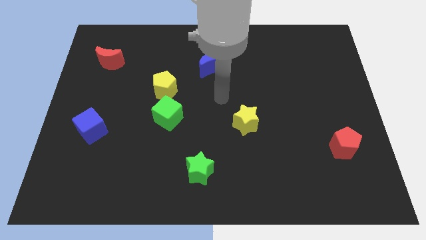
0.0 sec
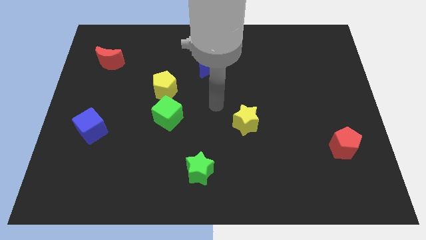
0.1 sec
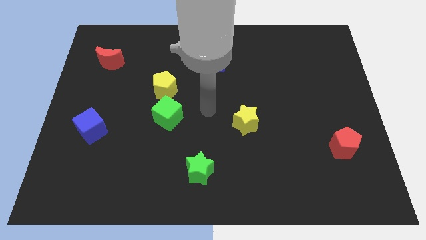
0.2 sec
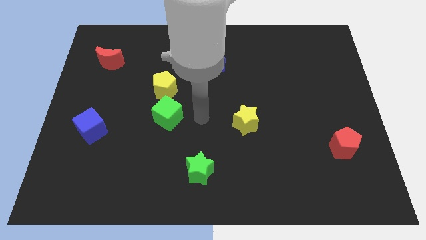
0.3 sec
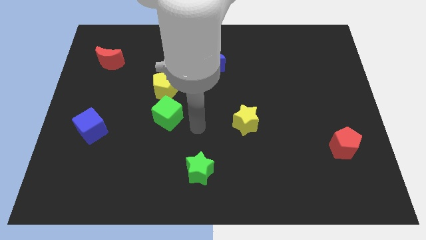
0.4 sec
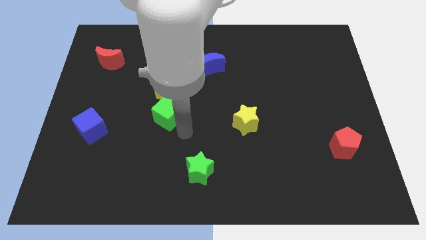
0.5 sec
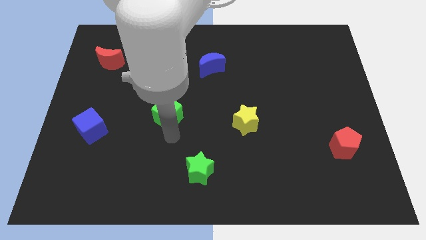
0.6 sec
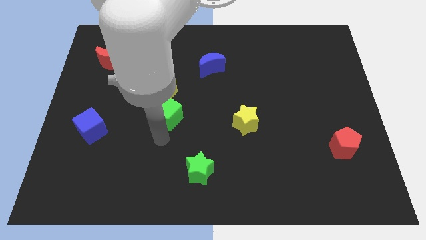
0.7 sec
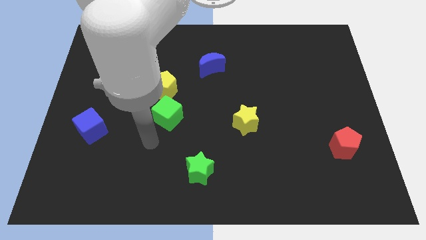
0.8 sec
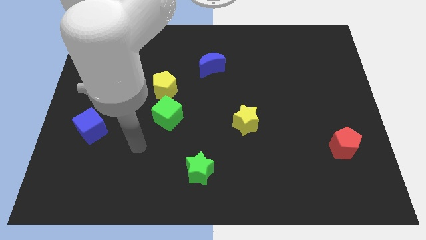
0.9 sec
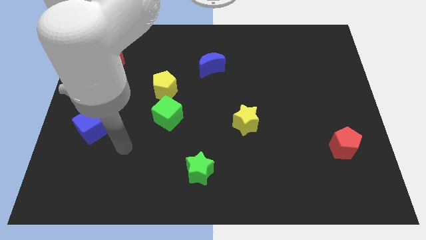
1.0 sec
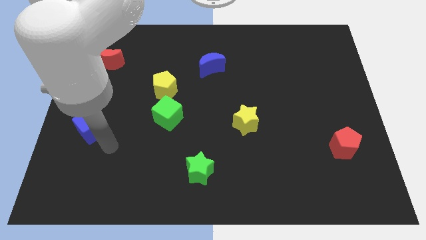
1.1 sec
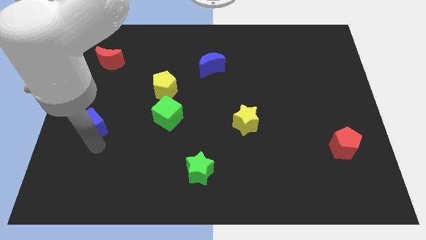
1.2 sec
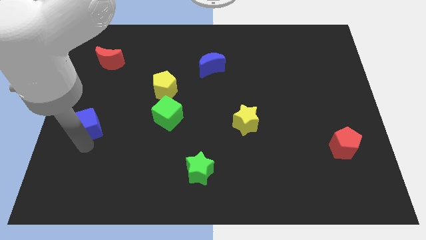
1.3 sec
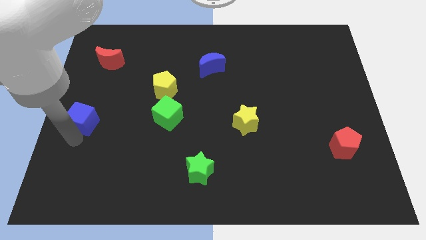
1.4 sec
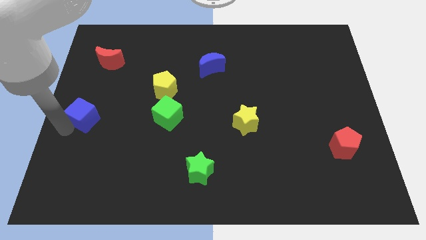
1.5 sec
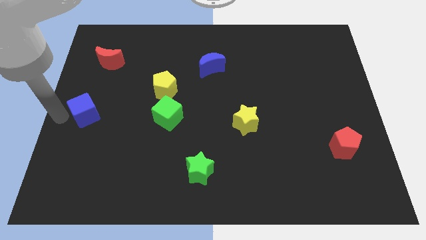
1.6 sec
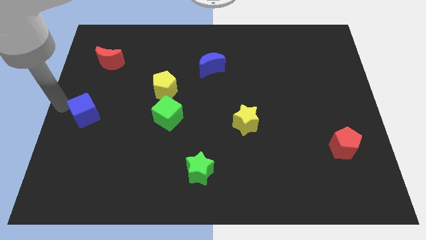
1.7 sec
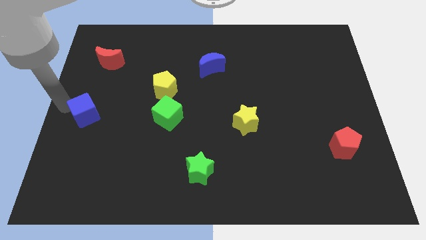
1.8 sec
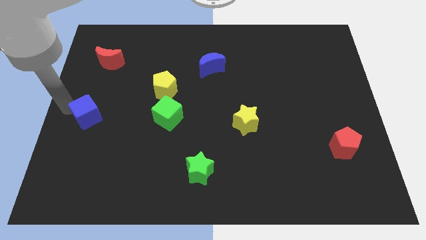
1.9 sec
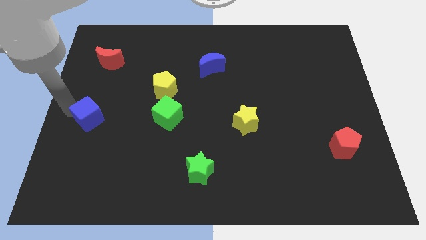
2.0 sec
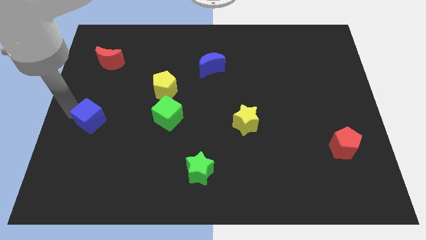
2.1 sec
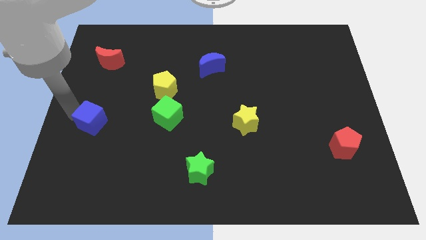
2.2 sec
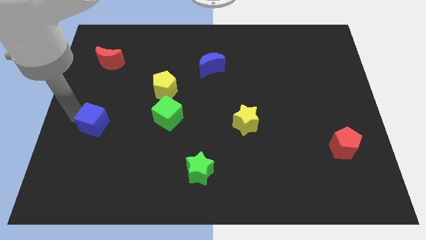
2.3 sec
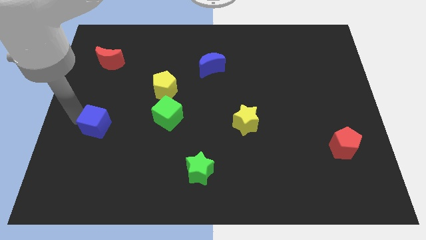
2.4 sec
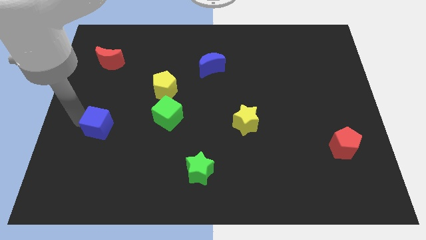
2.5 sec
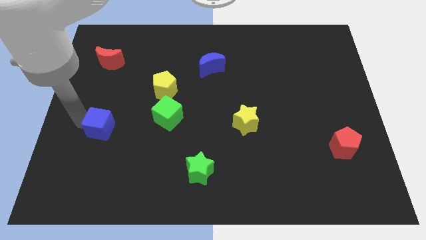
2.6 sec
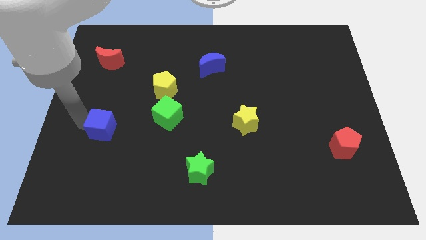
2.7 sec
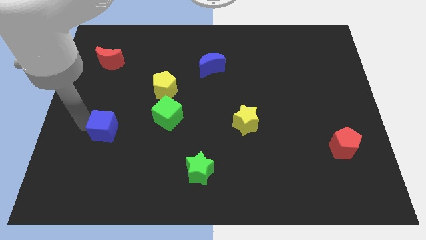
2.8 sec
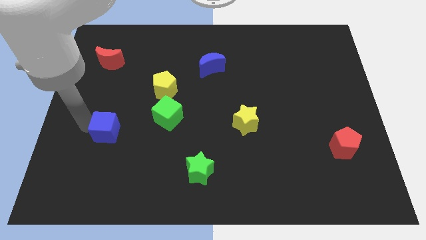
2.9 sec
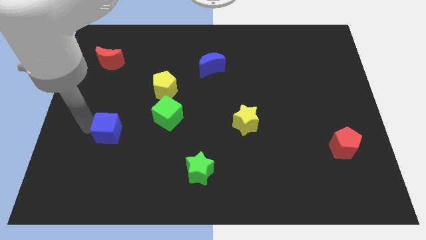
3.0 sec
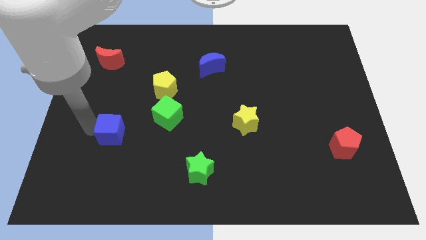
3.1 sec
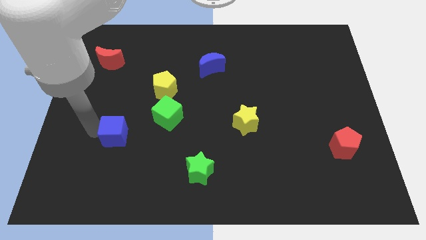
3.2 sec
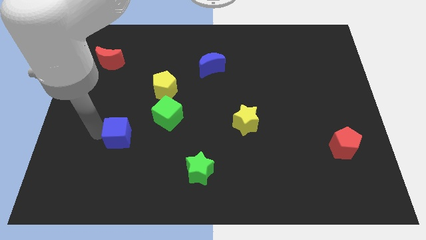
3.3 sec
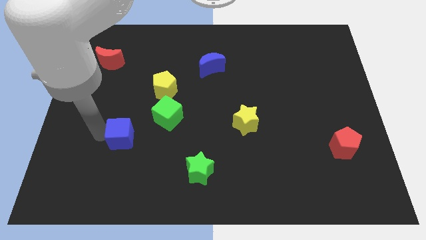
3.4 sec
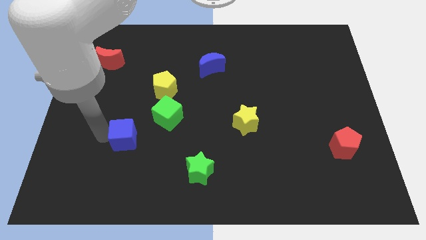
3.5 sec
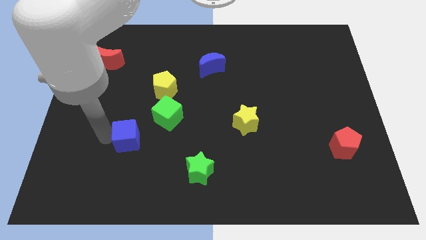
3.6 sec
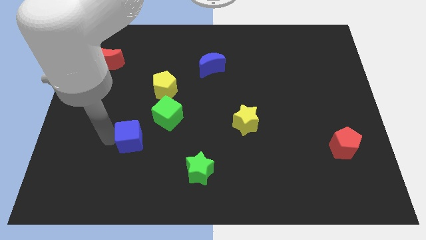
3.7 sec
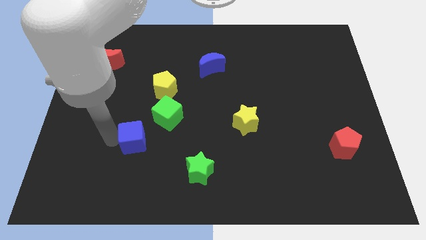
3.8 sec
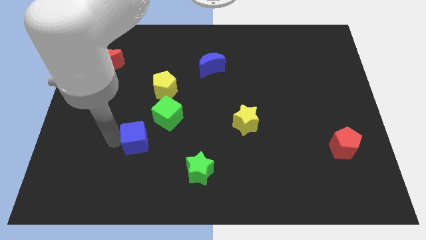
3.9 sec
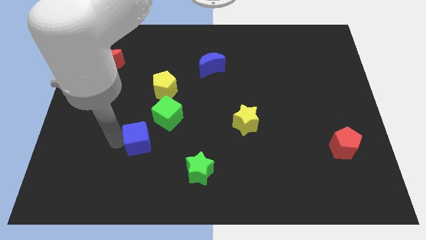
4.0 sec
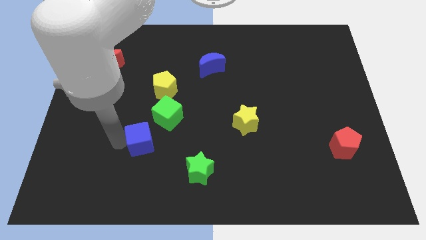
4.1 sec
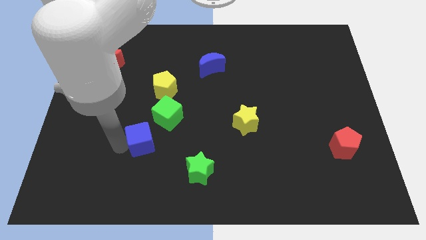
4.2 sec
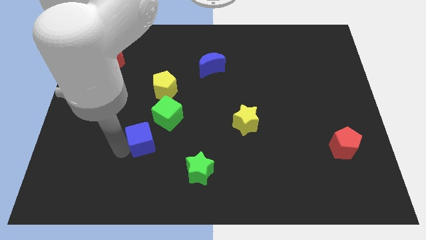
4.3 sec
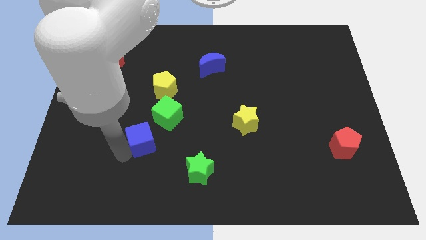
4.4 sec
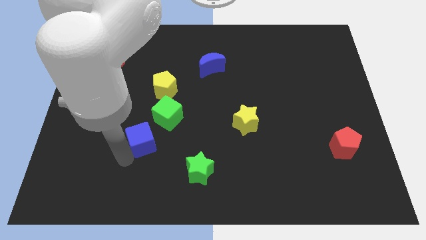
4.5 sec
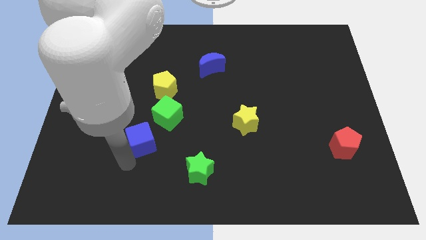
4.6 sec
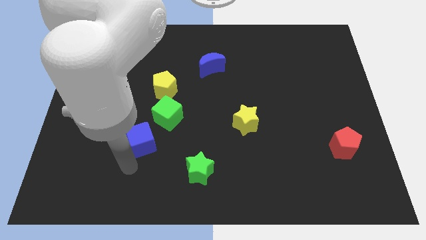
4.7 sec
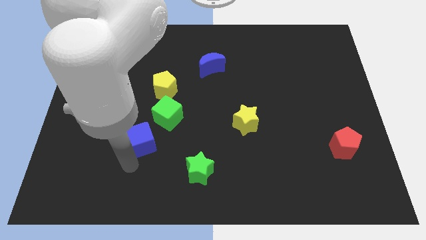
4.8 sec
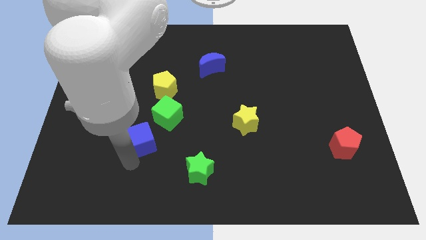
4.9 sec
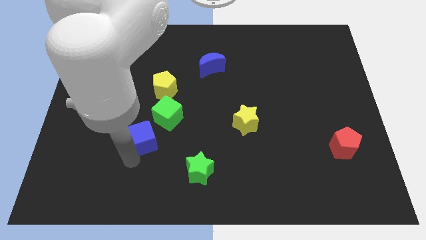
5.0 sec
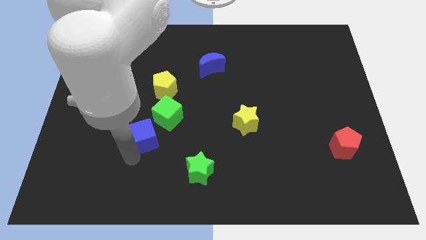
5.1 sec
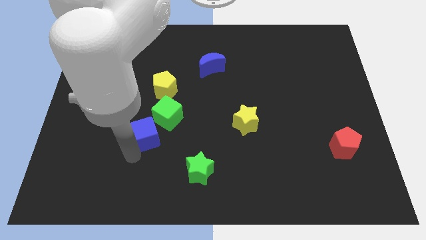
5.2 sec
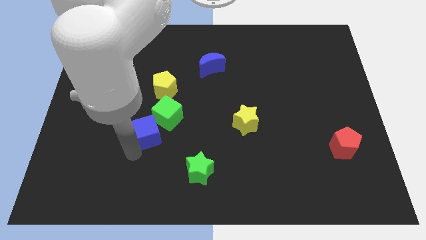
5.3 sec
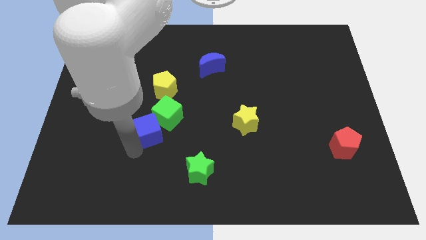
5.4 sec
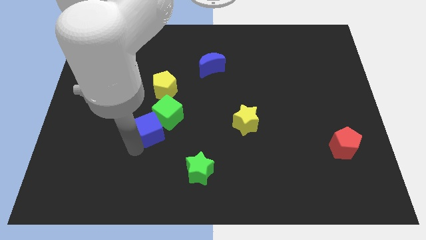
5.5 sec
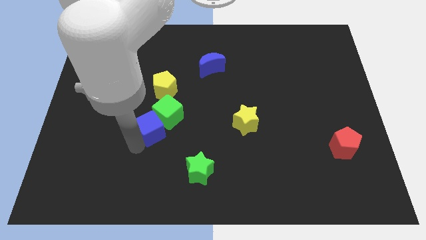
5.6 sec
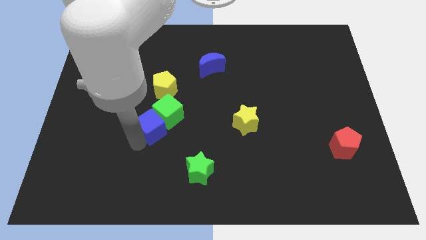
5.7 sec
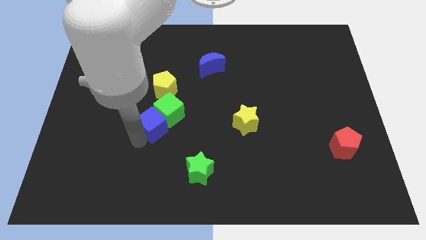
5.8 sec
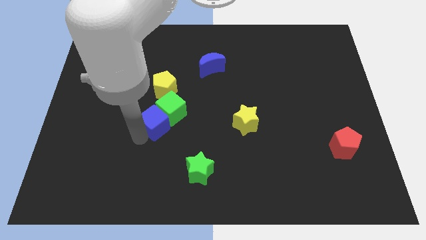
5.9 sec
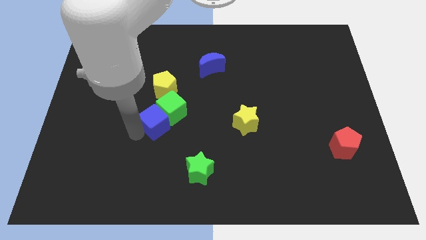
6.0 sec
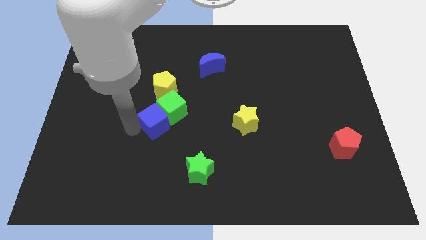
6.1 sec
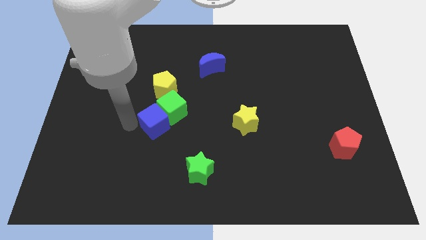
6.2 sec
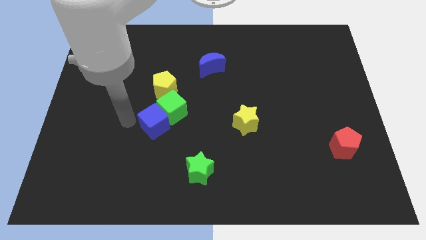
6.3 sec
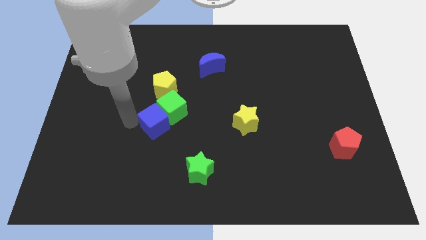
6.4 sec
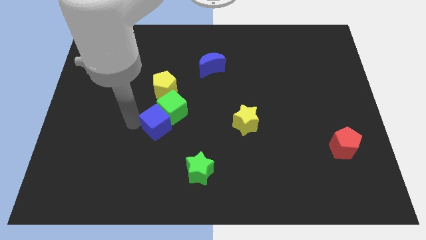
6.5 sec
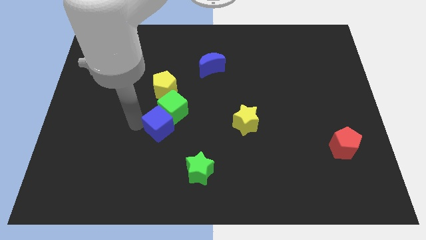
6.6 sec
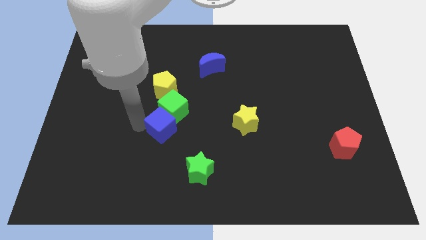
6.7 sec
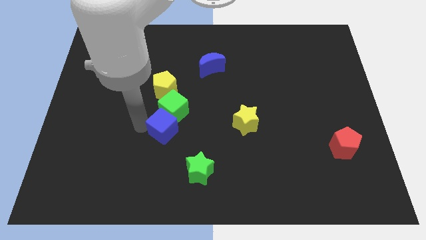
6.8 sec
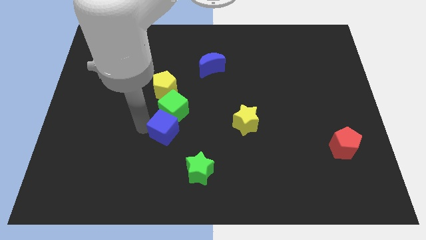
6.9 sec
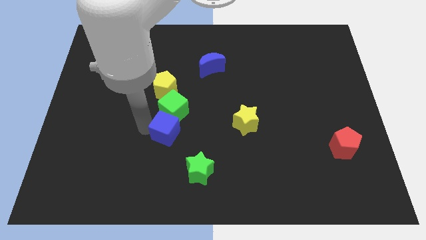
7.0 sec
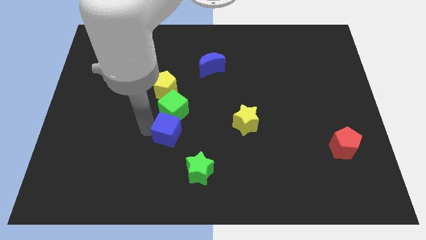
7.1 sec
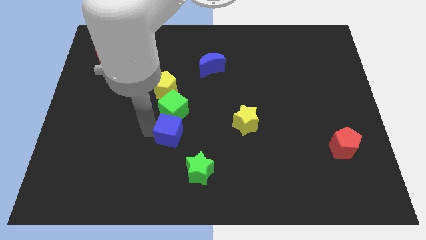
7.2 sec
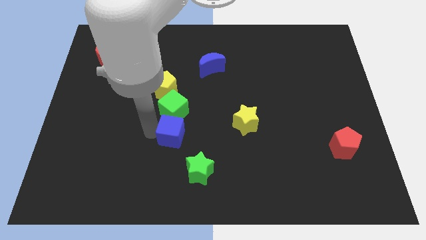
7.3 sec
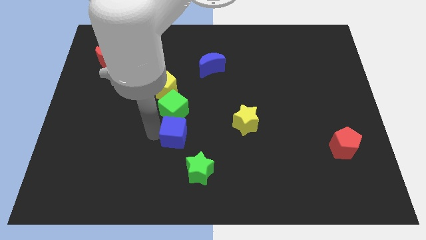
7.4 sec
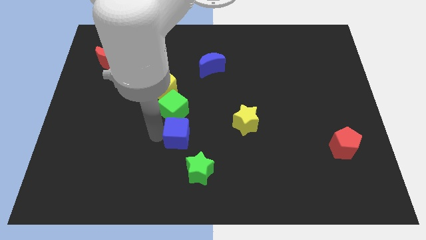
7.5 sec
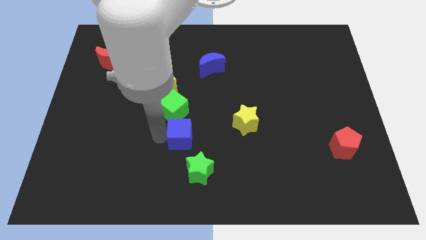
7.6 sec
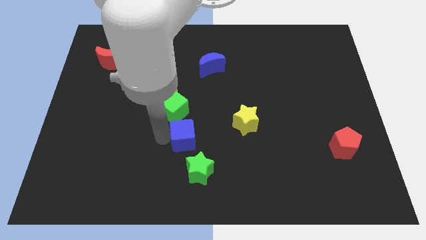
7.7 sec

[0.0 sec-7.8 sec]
push the blue cube left of the yellow star

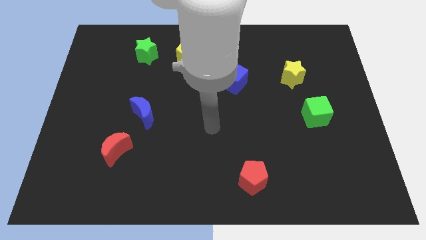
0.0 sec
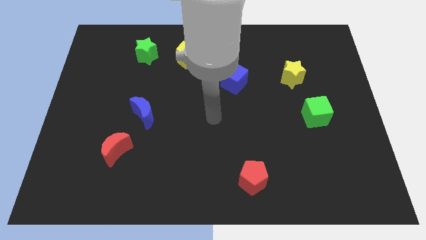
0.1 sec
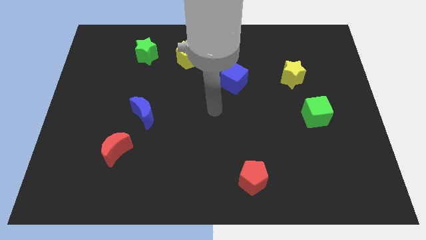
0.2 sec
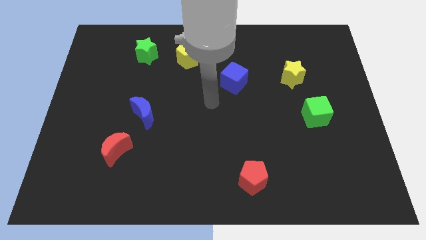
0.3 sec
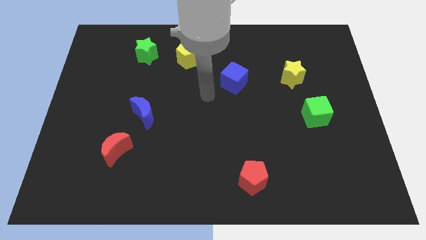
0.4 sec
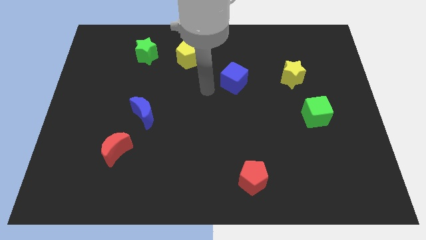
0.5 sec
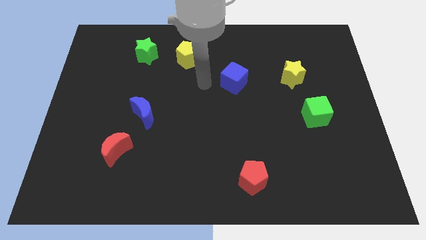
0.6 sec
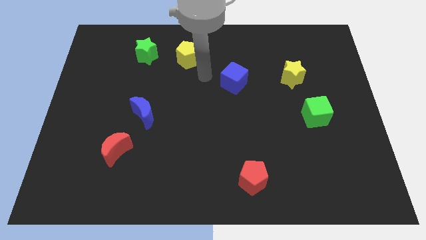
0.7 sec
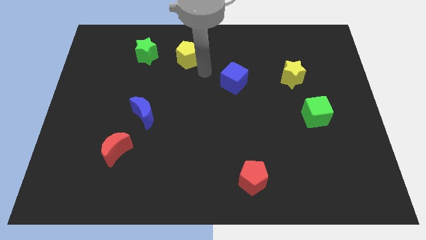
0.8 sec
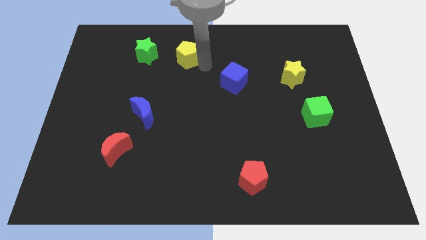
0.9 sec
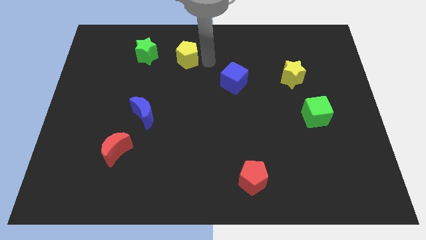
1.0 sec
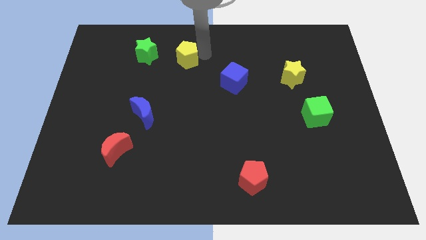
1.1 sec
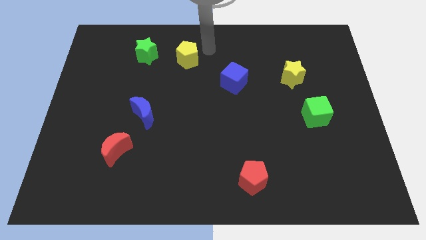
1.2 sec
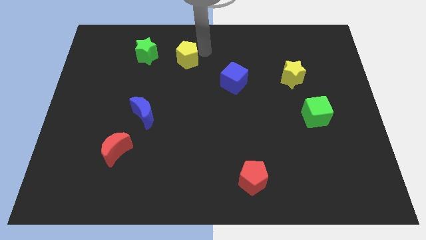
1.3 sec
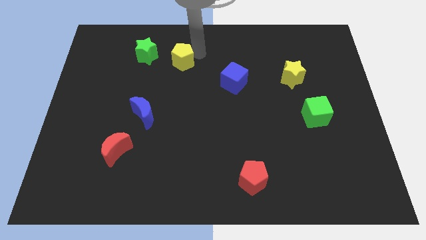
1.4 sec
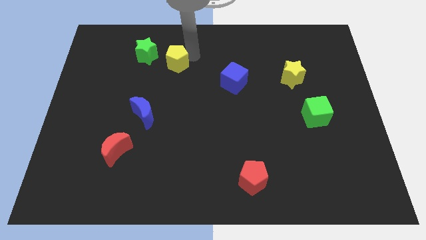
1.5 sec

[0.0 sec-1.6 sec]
move the yellow pentagon to the bottom right side of the green star
